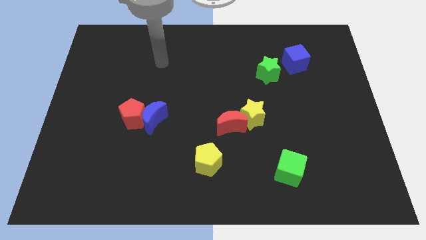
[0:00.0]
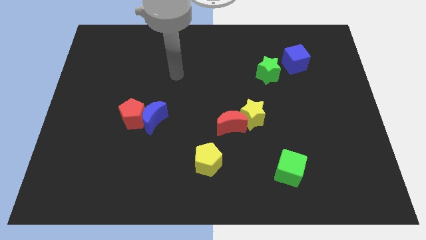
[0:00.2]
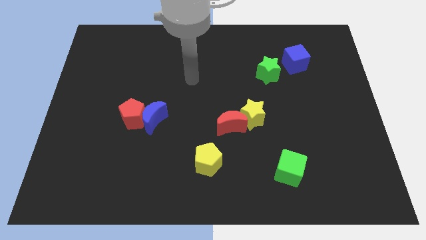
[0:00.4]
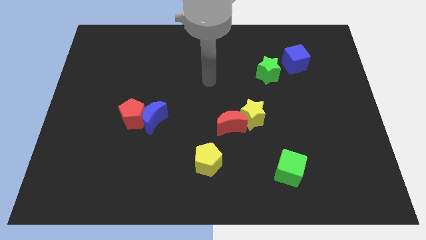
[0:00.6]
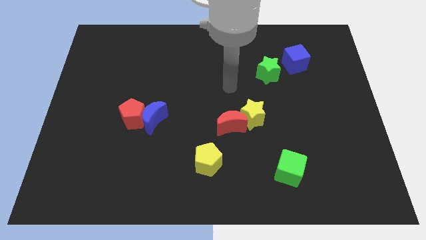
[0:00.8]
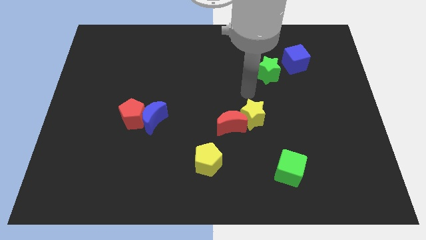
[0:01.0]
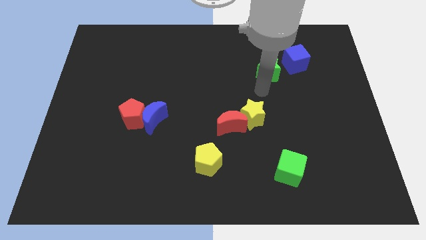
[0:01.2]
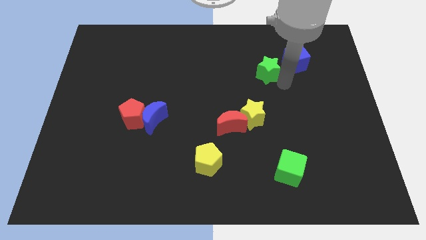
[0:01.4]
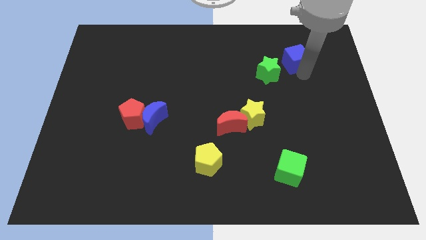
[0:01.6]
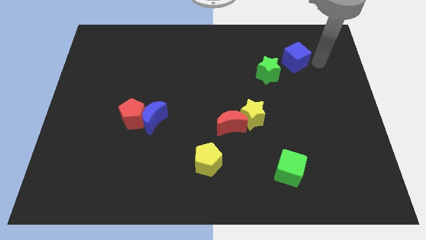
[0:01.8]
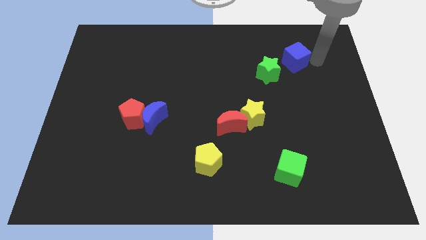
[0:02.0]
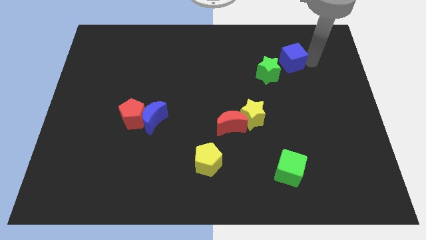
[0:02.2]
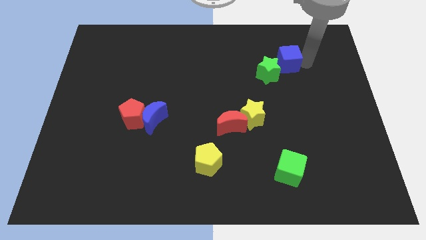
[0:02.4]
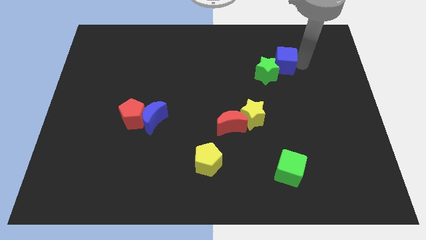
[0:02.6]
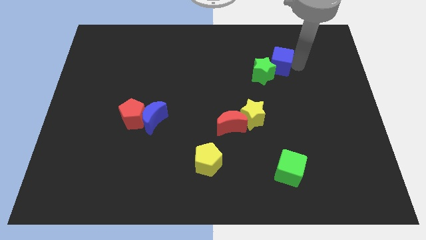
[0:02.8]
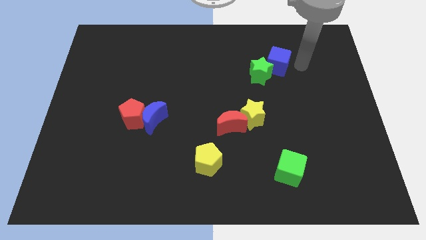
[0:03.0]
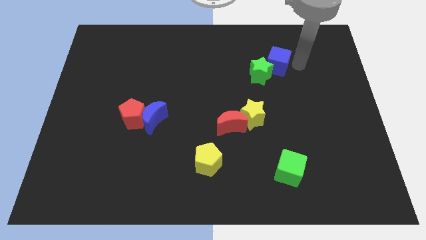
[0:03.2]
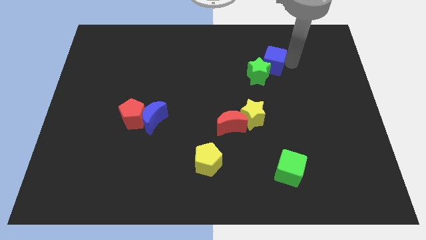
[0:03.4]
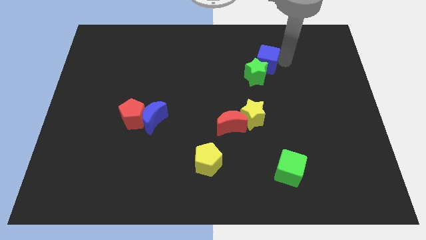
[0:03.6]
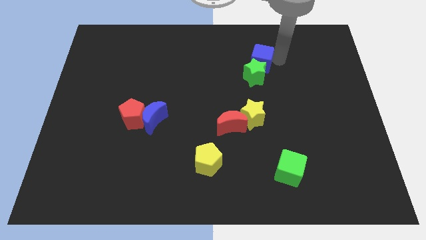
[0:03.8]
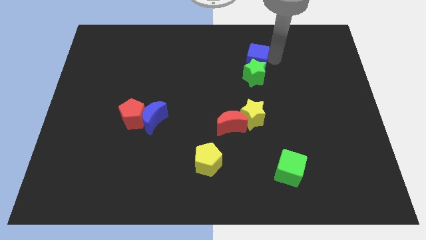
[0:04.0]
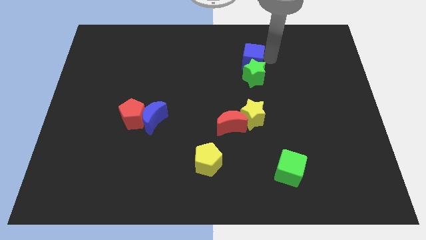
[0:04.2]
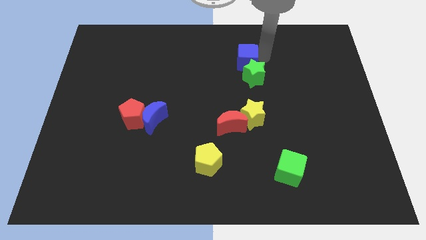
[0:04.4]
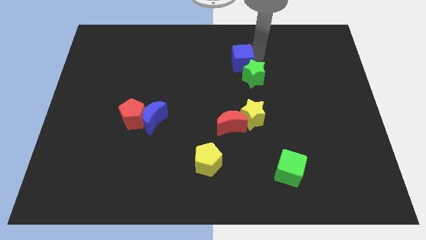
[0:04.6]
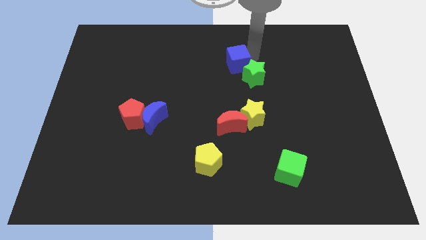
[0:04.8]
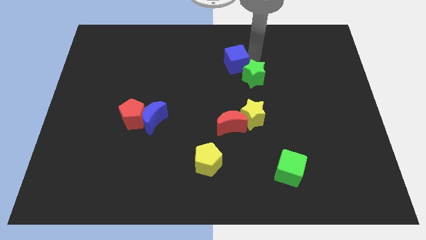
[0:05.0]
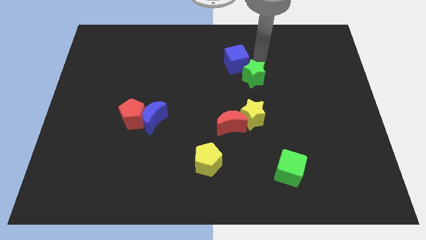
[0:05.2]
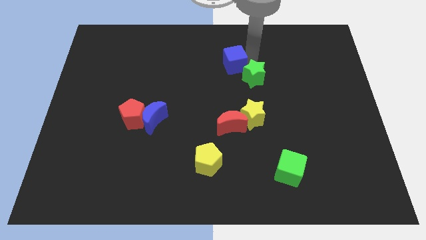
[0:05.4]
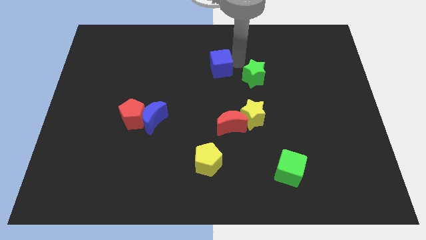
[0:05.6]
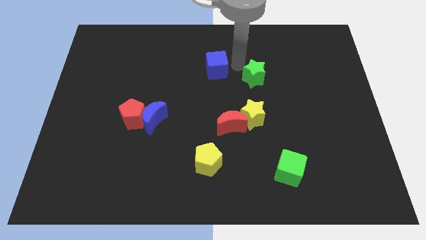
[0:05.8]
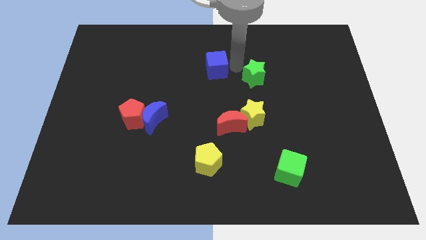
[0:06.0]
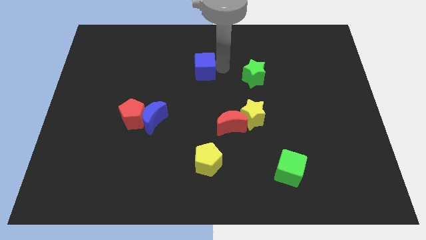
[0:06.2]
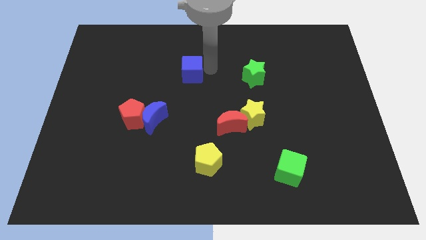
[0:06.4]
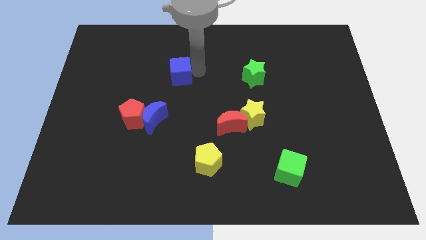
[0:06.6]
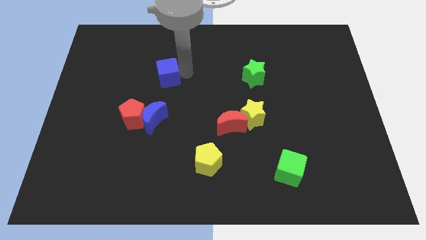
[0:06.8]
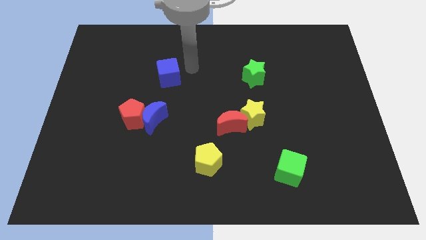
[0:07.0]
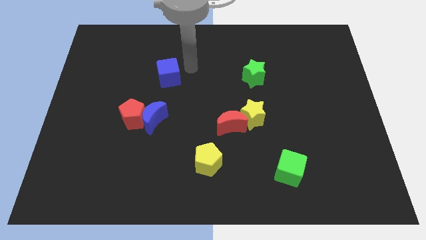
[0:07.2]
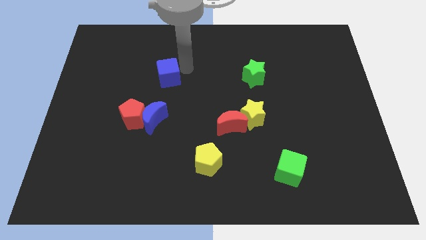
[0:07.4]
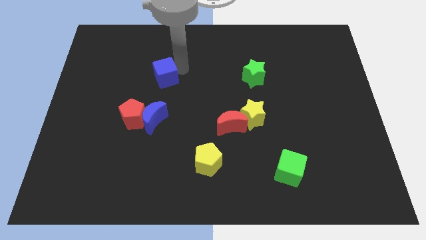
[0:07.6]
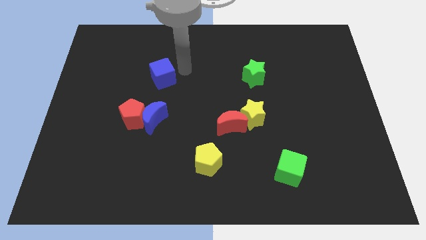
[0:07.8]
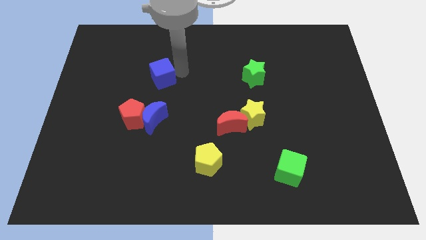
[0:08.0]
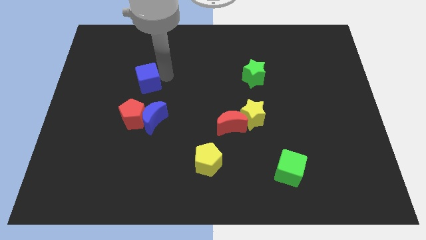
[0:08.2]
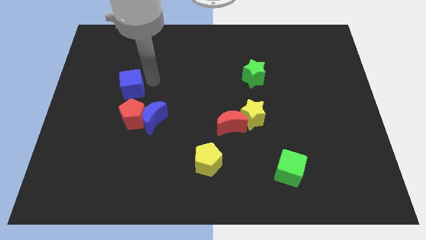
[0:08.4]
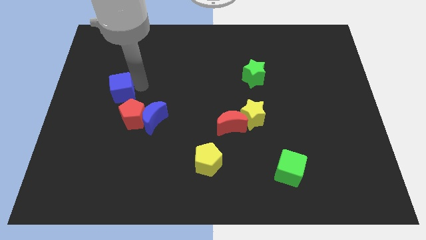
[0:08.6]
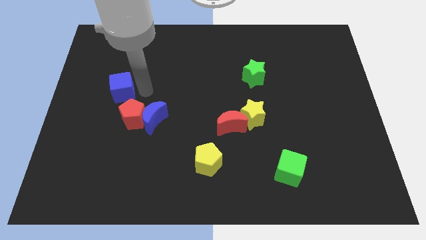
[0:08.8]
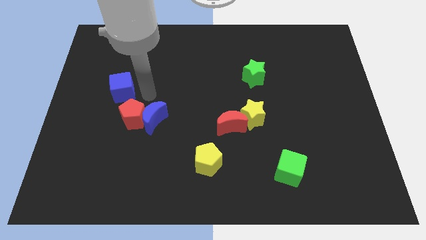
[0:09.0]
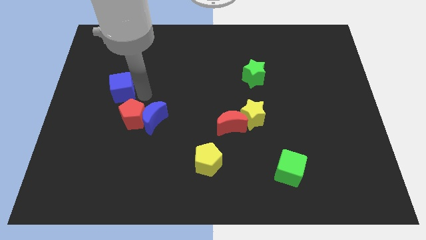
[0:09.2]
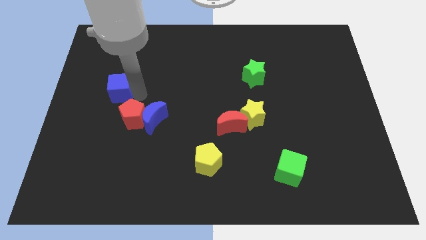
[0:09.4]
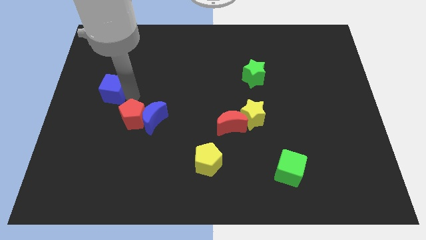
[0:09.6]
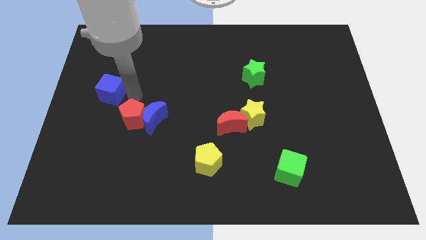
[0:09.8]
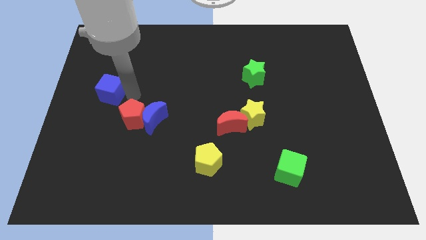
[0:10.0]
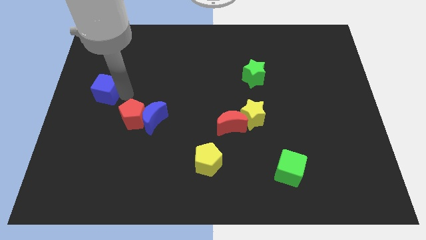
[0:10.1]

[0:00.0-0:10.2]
put the blue cube to the center left

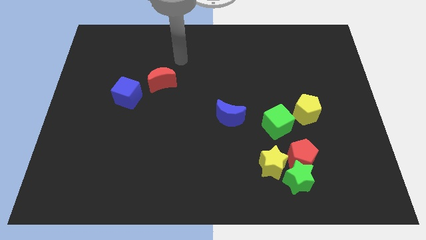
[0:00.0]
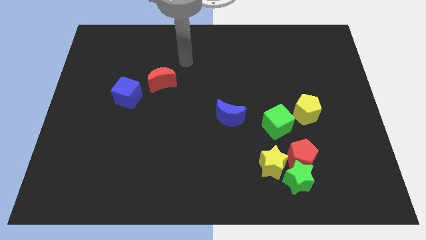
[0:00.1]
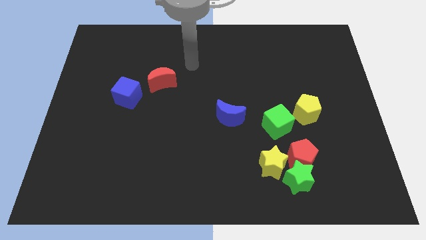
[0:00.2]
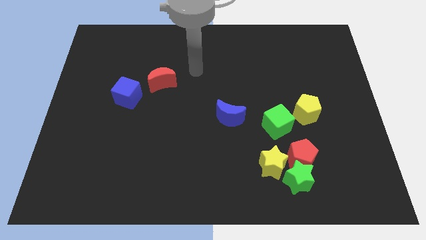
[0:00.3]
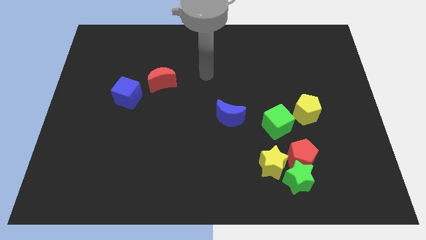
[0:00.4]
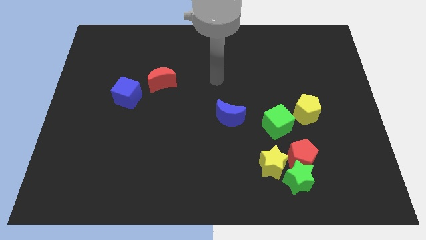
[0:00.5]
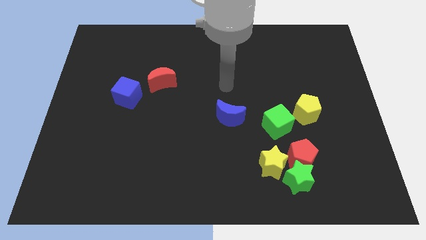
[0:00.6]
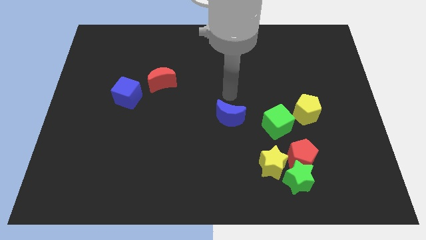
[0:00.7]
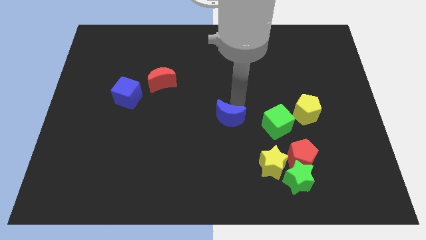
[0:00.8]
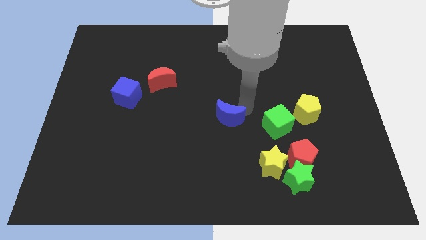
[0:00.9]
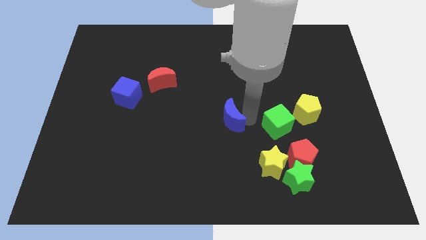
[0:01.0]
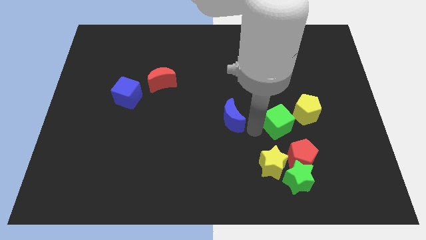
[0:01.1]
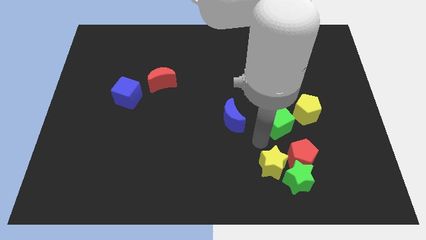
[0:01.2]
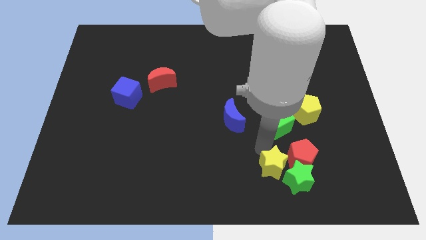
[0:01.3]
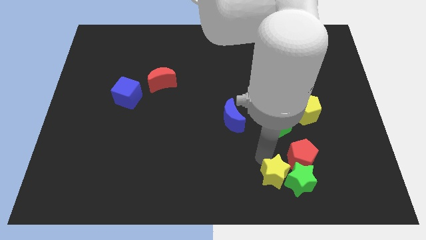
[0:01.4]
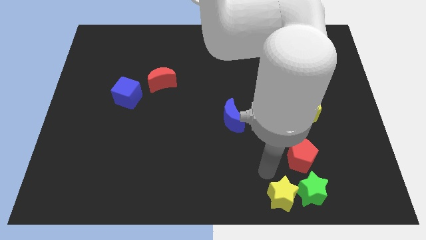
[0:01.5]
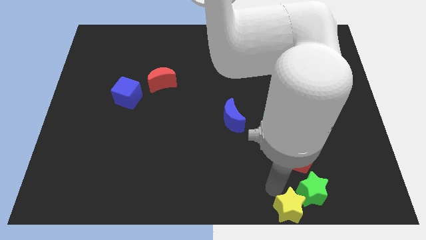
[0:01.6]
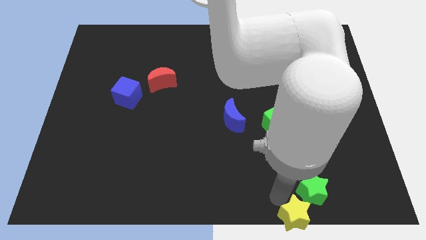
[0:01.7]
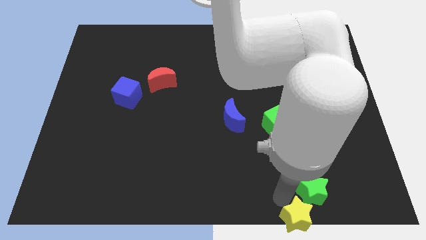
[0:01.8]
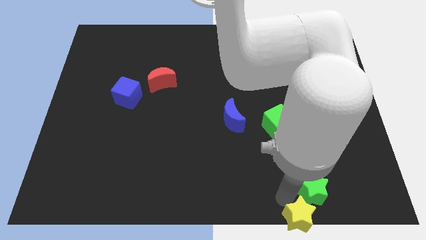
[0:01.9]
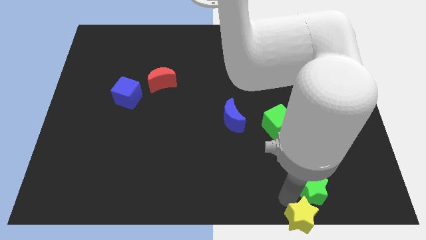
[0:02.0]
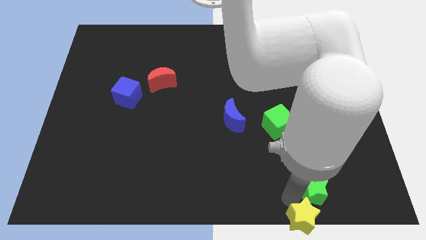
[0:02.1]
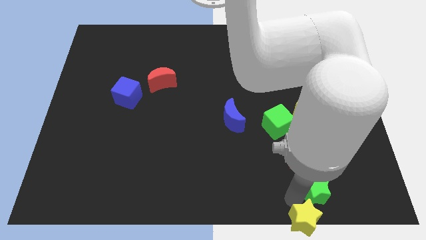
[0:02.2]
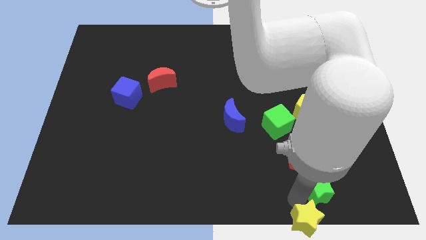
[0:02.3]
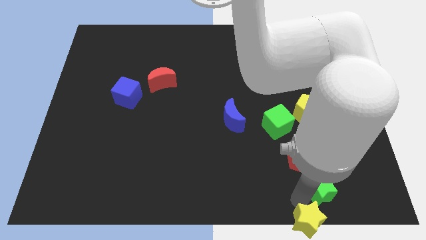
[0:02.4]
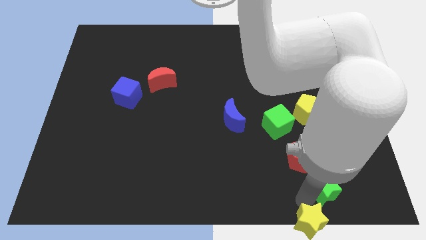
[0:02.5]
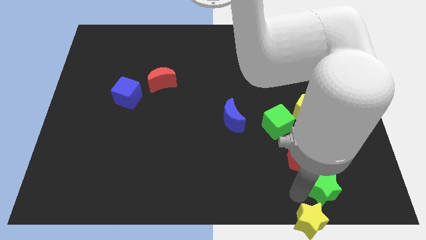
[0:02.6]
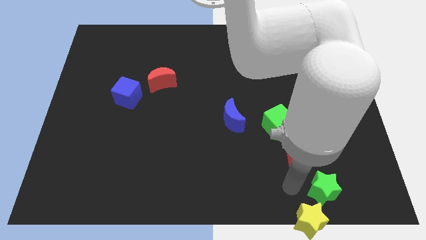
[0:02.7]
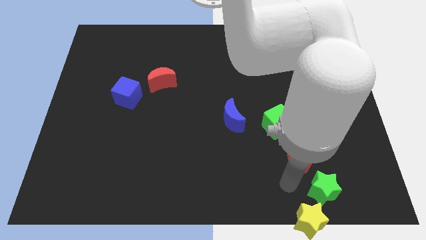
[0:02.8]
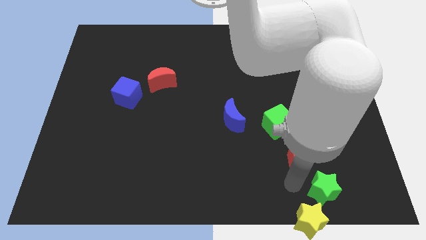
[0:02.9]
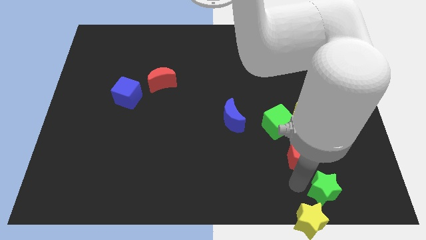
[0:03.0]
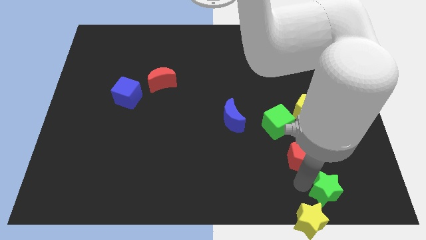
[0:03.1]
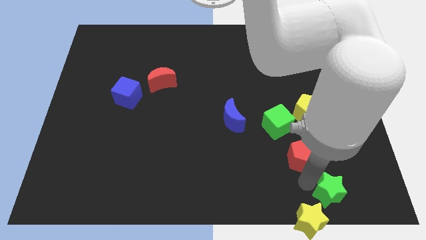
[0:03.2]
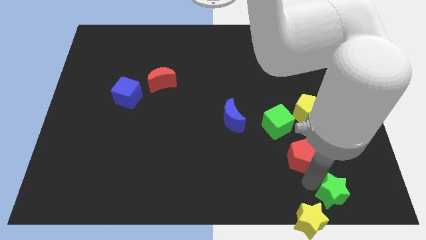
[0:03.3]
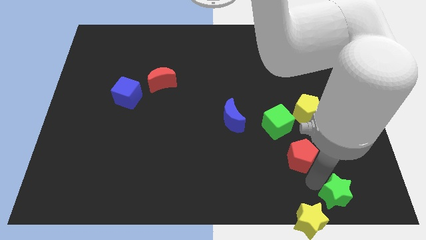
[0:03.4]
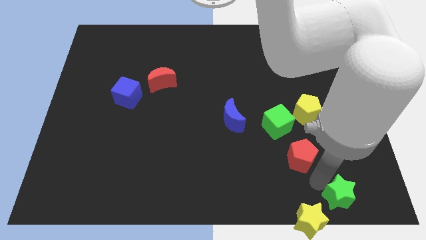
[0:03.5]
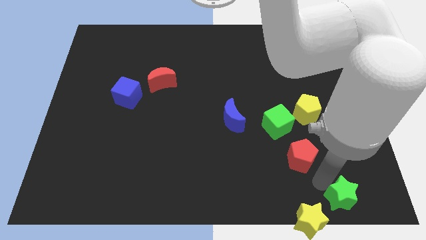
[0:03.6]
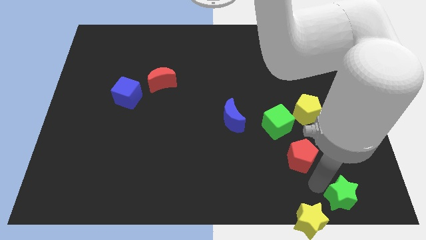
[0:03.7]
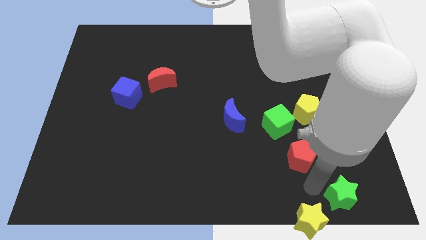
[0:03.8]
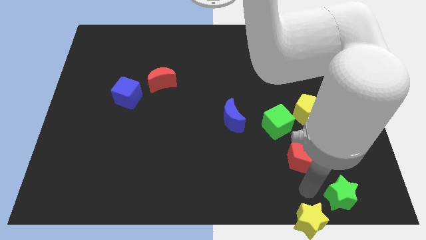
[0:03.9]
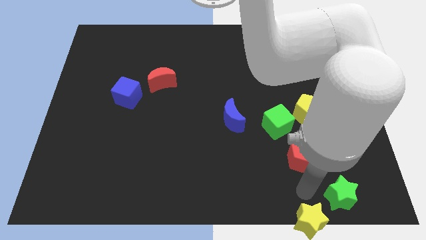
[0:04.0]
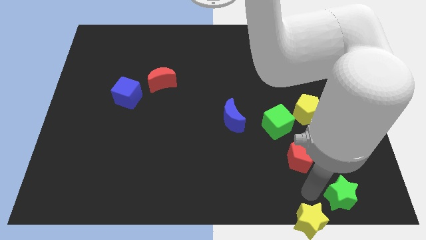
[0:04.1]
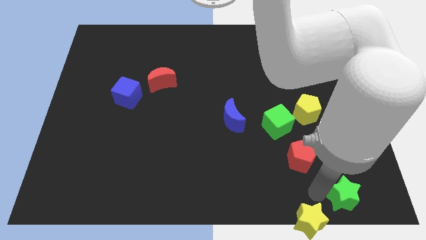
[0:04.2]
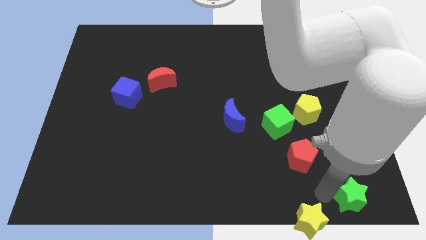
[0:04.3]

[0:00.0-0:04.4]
slide the green star to the bottom right of the board
